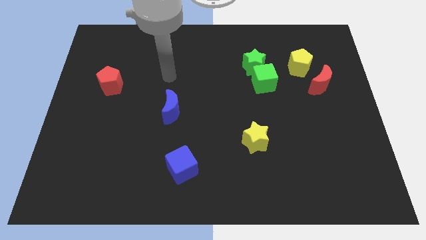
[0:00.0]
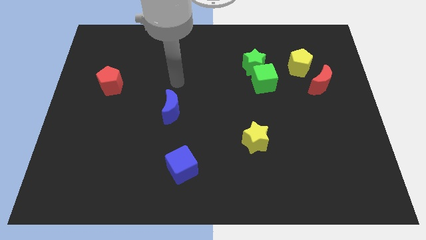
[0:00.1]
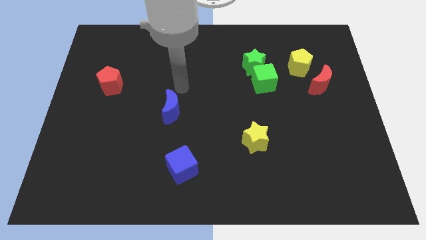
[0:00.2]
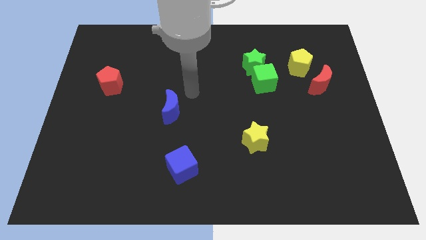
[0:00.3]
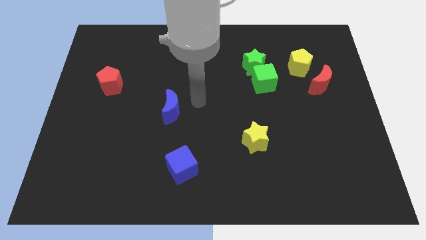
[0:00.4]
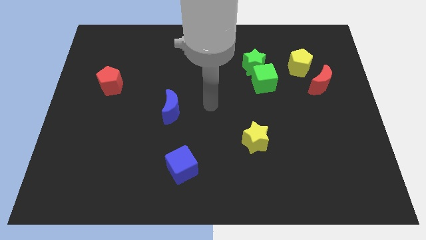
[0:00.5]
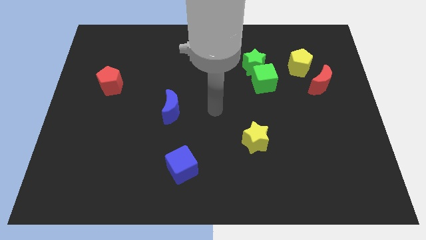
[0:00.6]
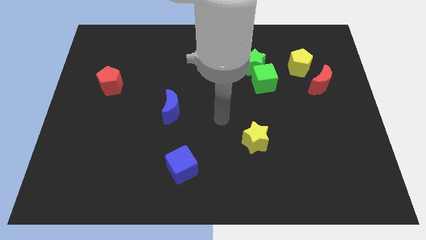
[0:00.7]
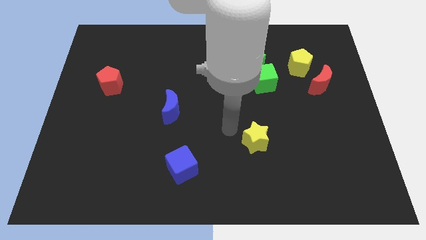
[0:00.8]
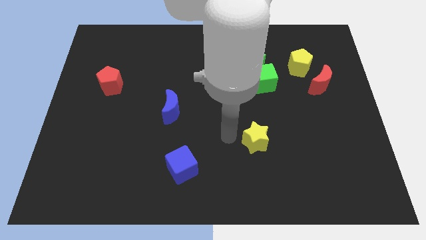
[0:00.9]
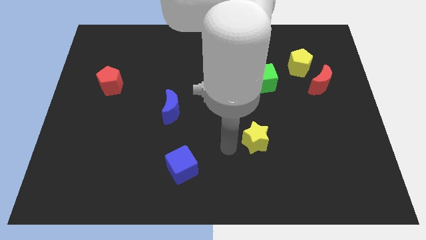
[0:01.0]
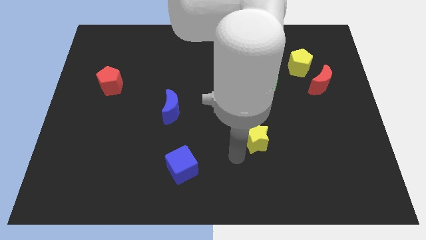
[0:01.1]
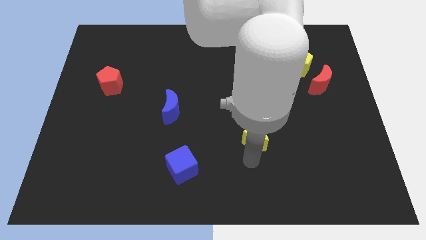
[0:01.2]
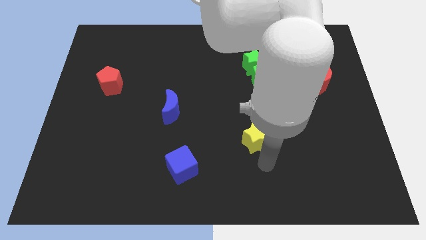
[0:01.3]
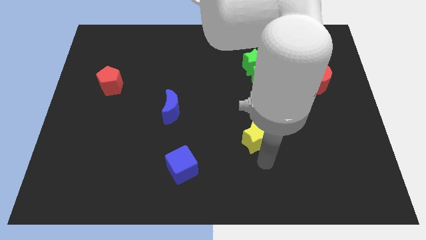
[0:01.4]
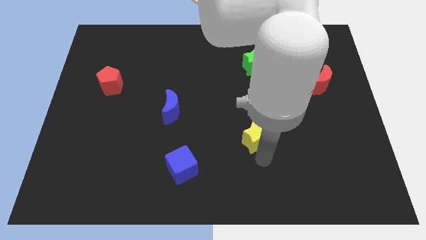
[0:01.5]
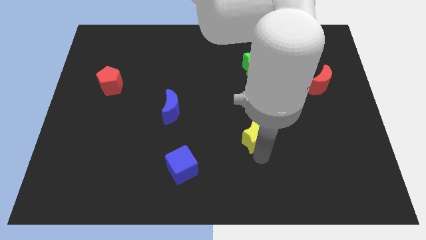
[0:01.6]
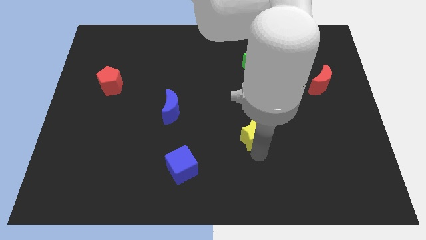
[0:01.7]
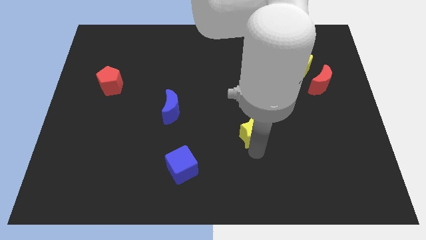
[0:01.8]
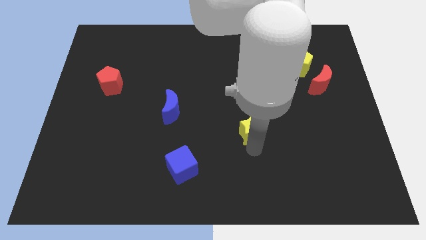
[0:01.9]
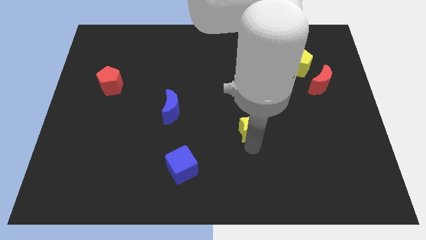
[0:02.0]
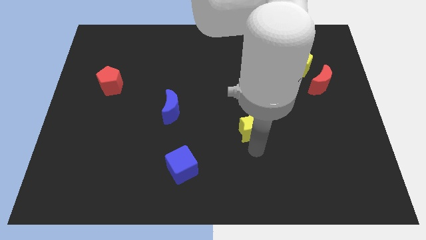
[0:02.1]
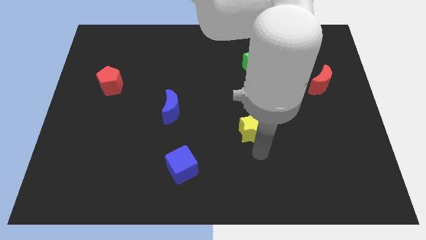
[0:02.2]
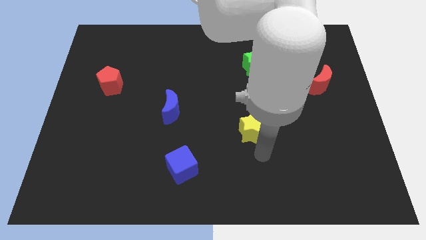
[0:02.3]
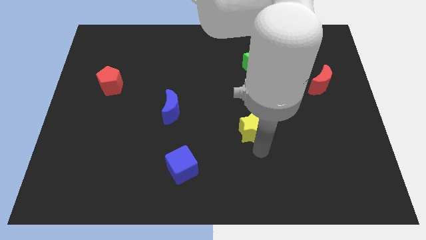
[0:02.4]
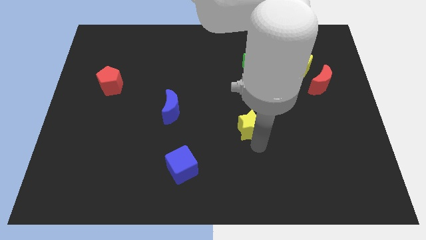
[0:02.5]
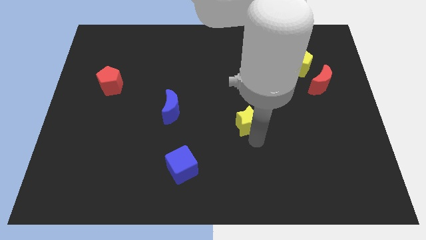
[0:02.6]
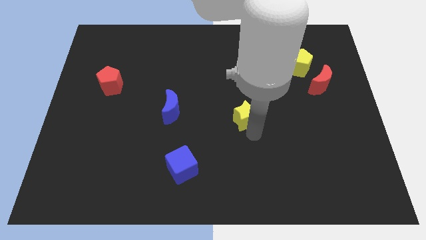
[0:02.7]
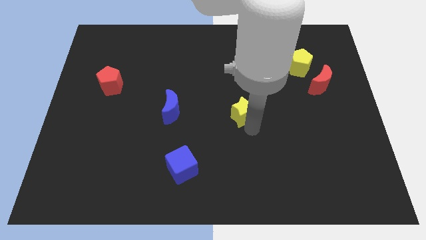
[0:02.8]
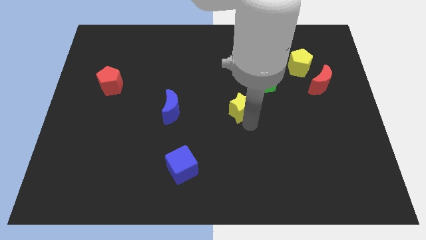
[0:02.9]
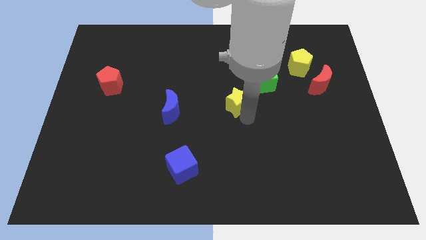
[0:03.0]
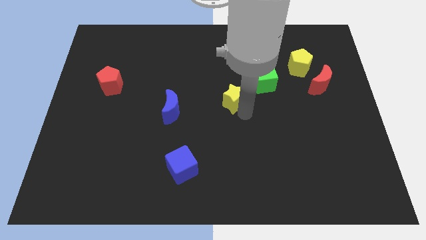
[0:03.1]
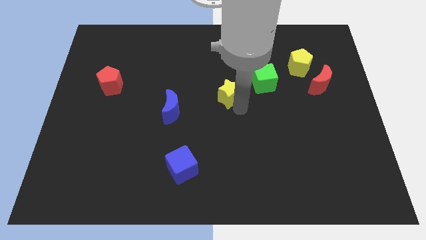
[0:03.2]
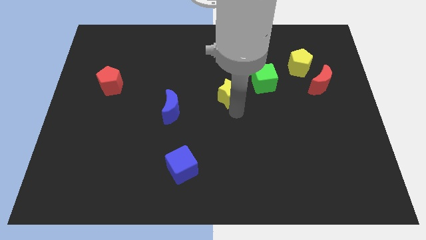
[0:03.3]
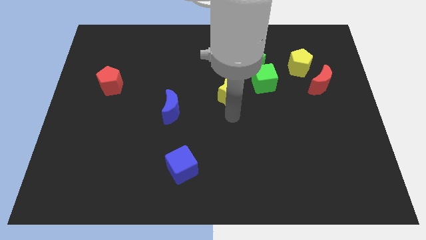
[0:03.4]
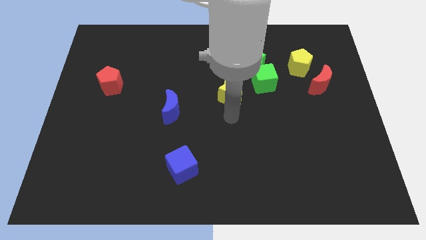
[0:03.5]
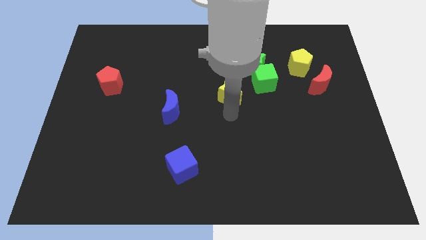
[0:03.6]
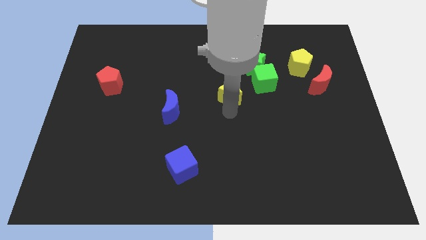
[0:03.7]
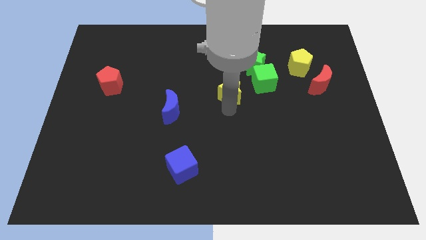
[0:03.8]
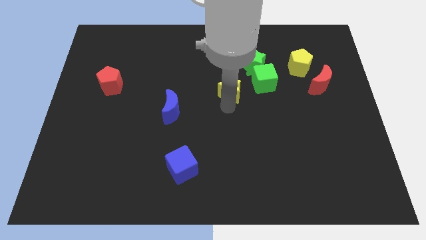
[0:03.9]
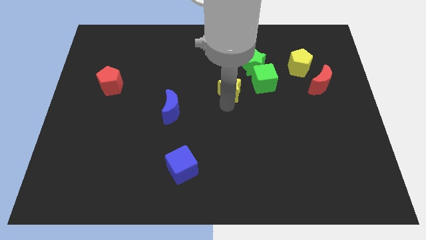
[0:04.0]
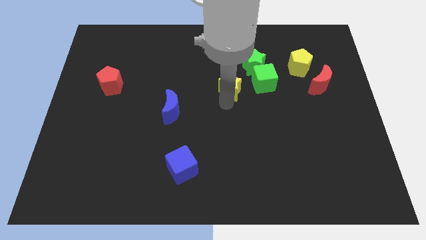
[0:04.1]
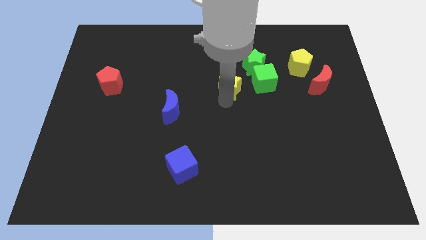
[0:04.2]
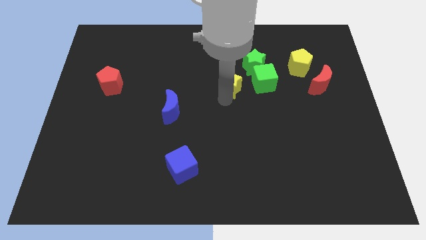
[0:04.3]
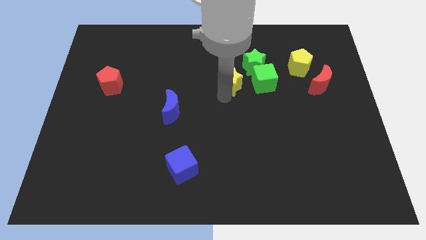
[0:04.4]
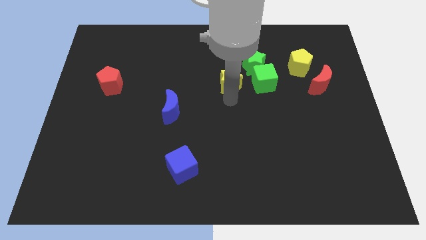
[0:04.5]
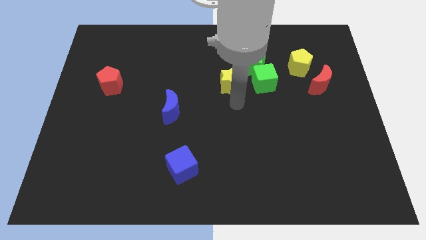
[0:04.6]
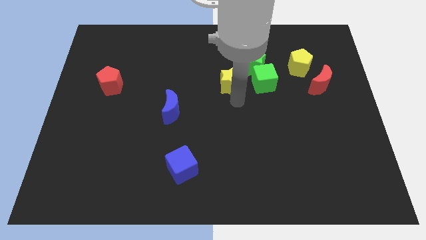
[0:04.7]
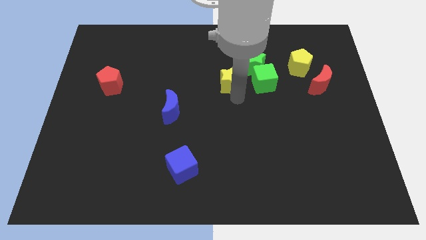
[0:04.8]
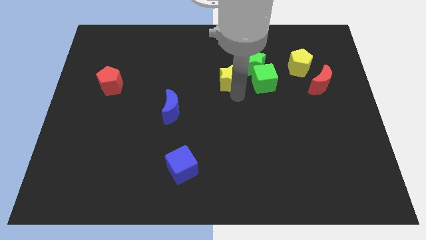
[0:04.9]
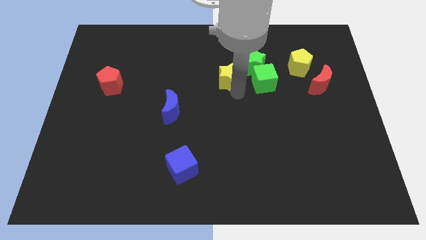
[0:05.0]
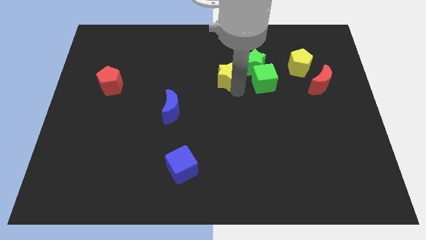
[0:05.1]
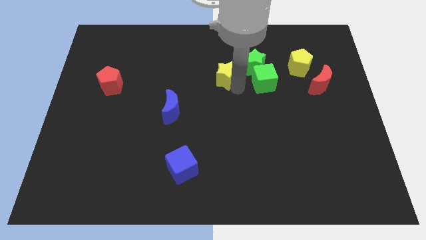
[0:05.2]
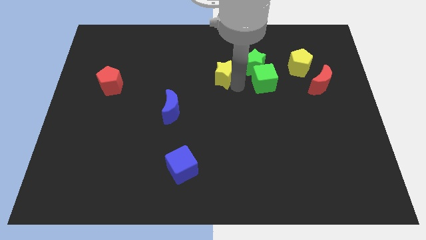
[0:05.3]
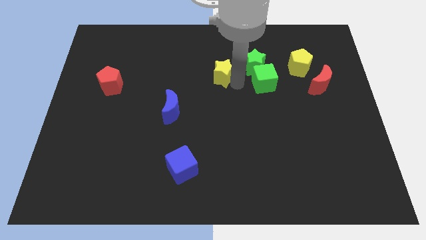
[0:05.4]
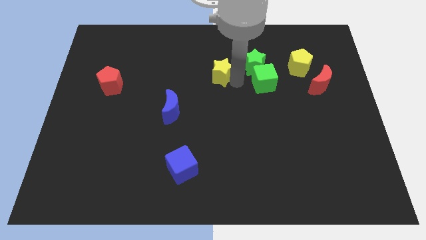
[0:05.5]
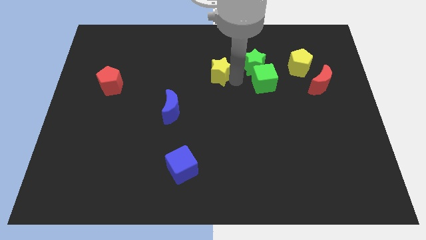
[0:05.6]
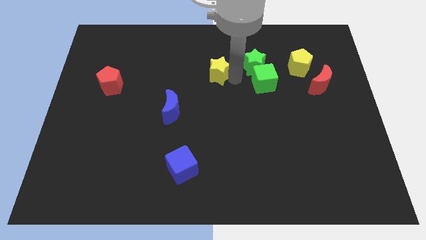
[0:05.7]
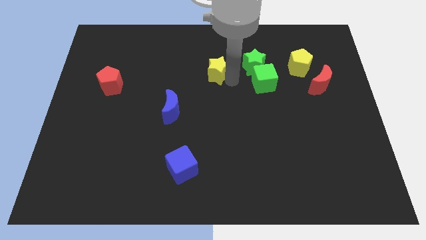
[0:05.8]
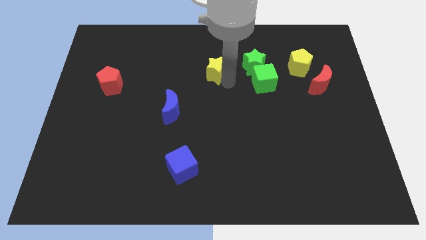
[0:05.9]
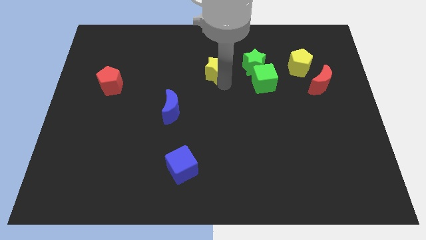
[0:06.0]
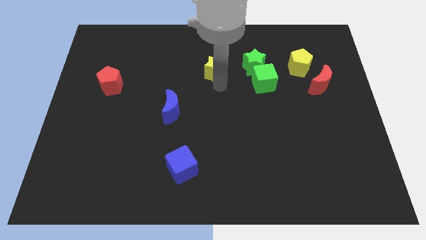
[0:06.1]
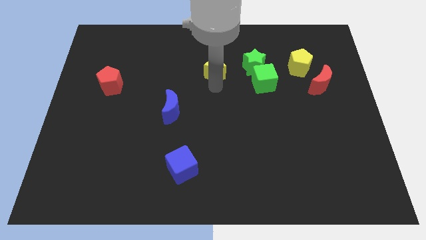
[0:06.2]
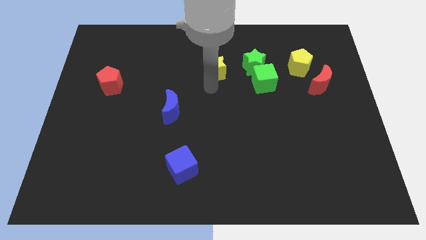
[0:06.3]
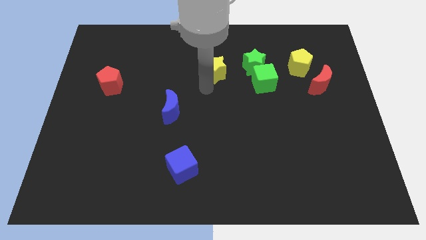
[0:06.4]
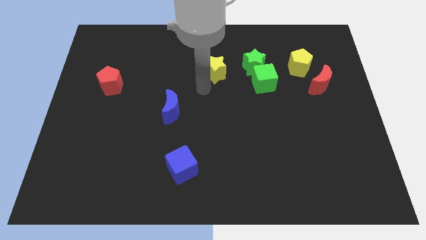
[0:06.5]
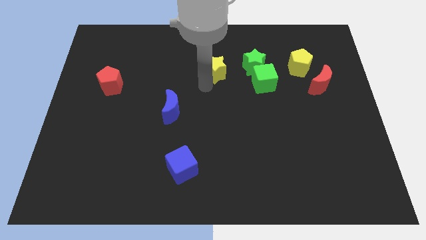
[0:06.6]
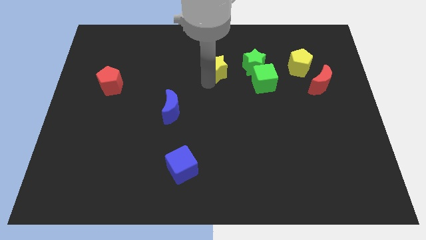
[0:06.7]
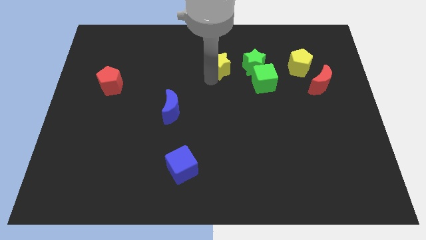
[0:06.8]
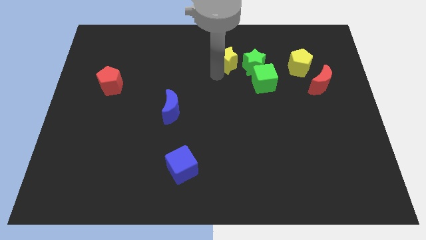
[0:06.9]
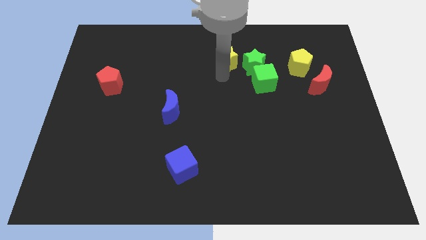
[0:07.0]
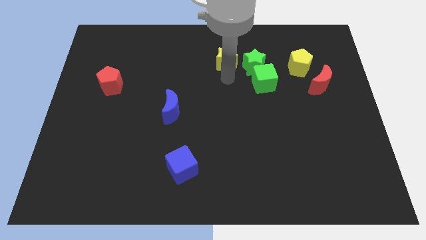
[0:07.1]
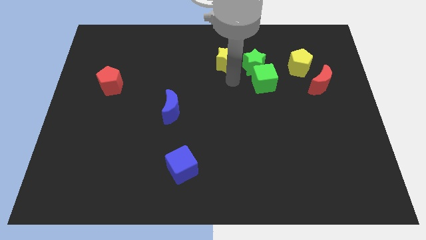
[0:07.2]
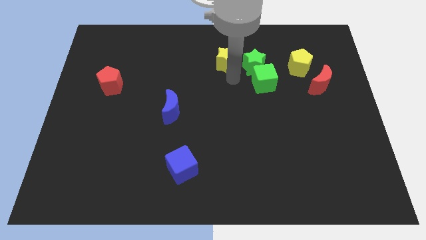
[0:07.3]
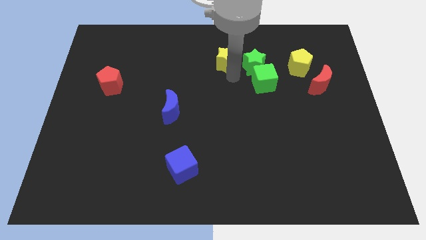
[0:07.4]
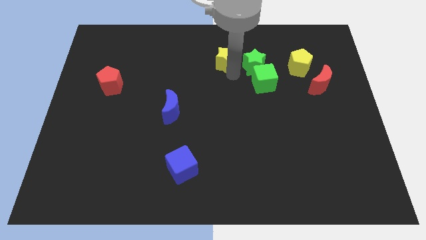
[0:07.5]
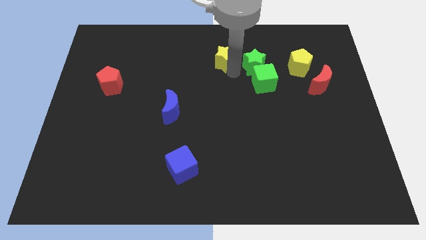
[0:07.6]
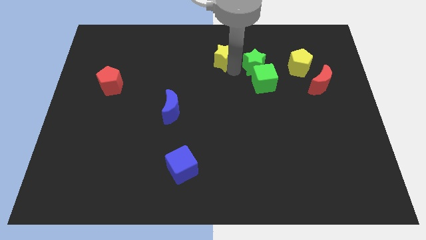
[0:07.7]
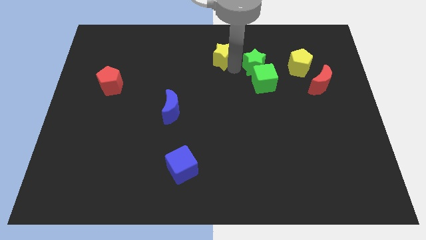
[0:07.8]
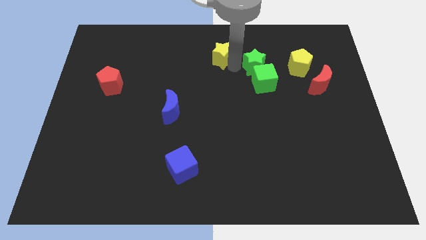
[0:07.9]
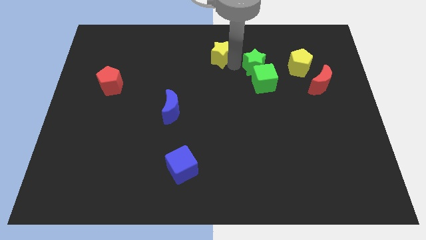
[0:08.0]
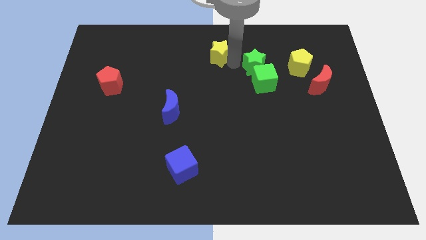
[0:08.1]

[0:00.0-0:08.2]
slide the yellow star to the top

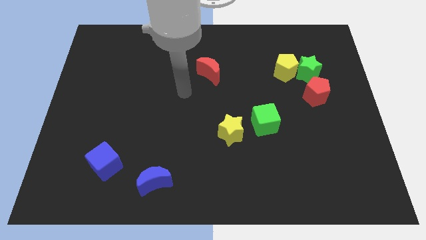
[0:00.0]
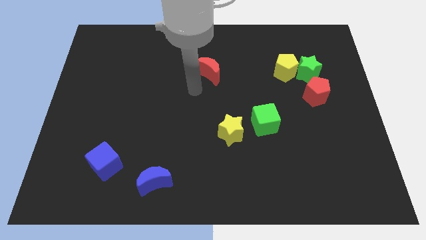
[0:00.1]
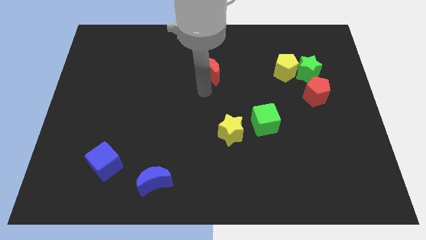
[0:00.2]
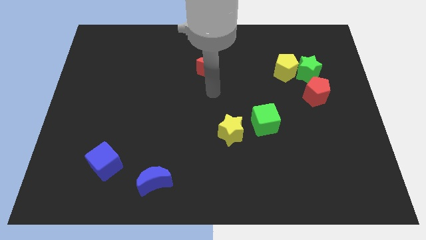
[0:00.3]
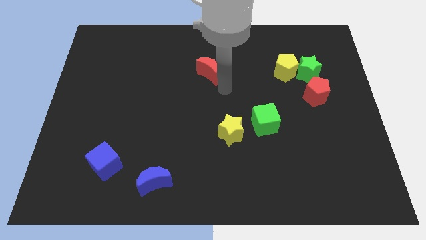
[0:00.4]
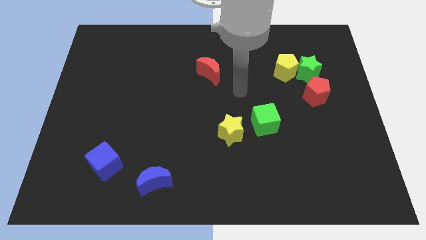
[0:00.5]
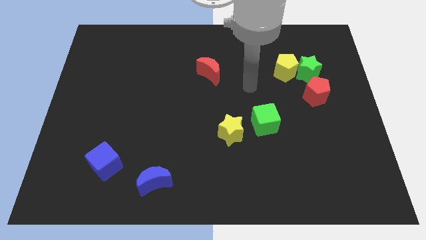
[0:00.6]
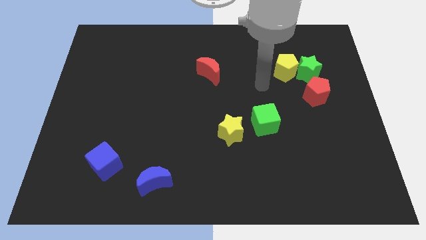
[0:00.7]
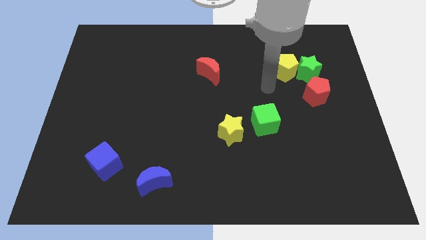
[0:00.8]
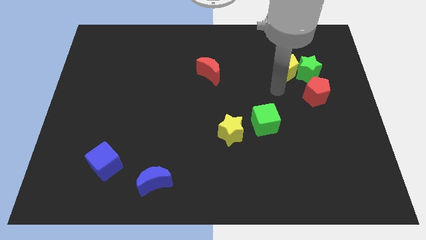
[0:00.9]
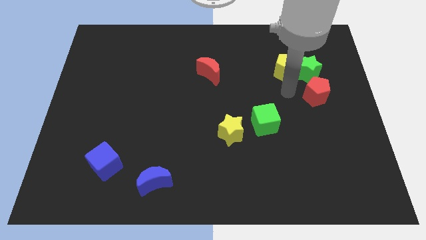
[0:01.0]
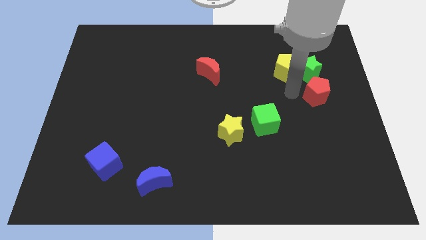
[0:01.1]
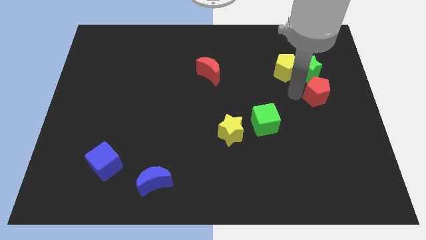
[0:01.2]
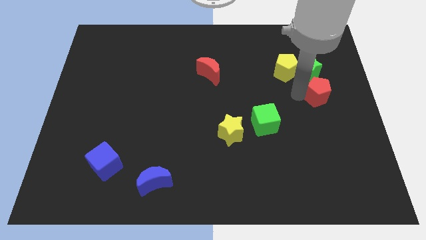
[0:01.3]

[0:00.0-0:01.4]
push the red pentagon to the center right
